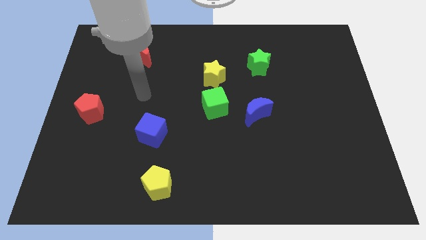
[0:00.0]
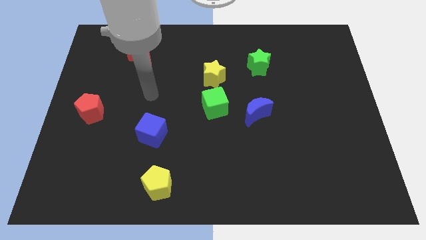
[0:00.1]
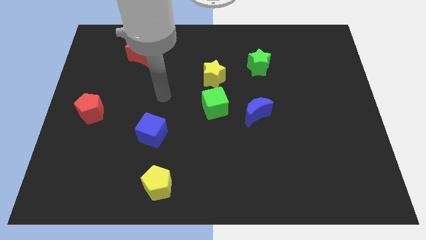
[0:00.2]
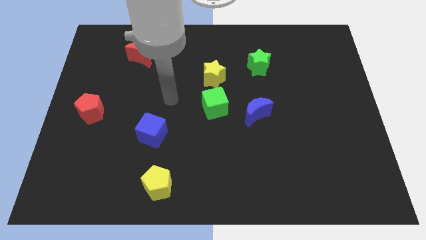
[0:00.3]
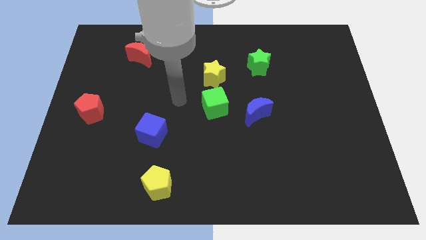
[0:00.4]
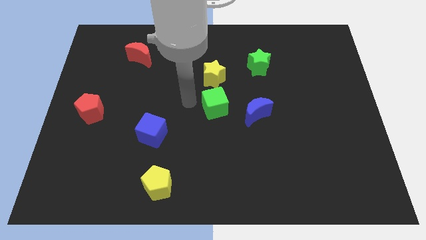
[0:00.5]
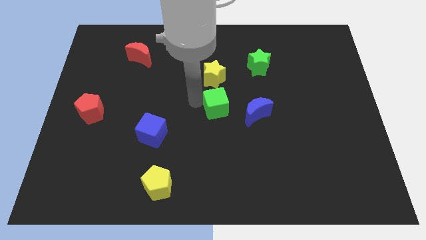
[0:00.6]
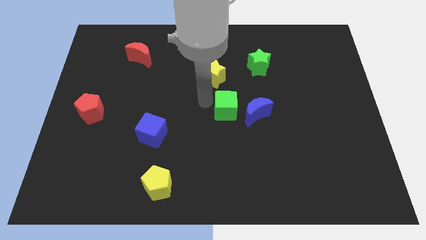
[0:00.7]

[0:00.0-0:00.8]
pull the yellow star apart from the green cube

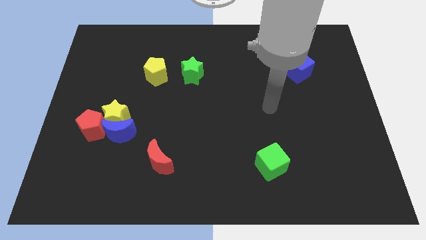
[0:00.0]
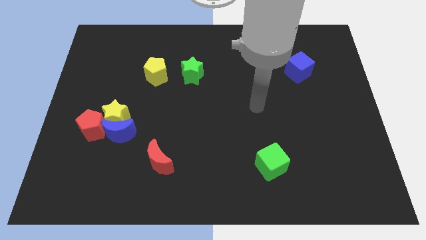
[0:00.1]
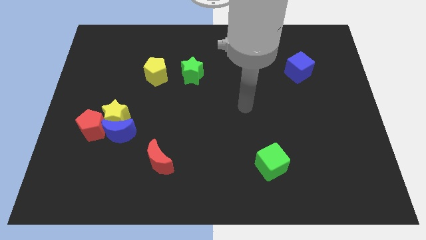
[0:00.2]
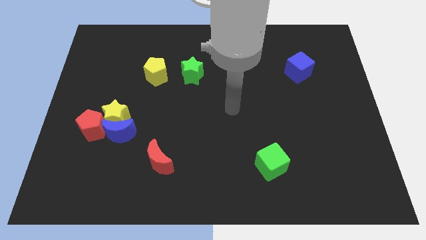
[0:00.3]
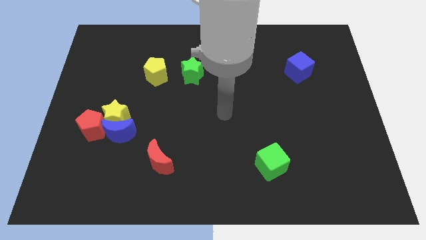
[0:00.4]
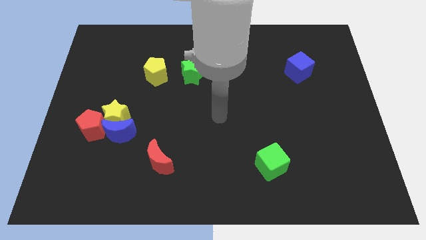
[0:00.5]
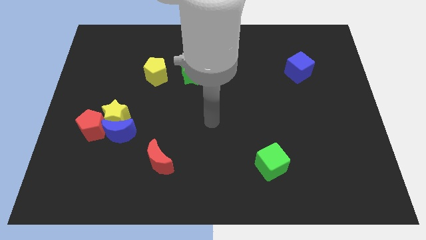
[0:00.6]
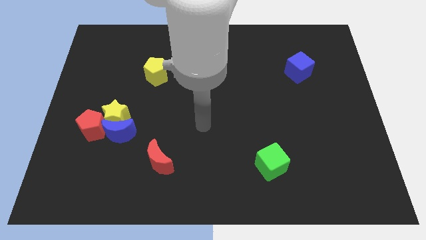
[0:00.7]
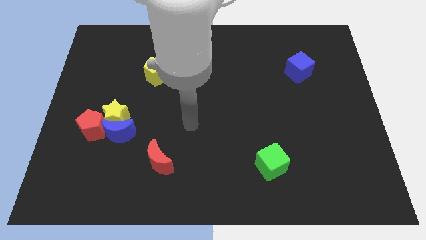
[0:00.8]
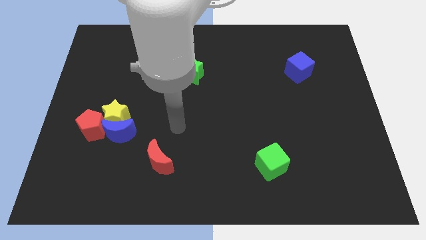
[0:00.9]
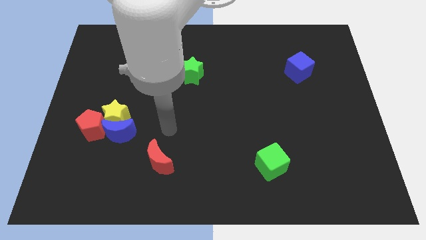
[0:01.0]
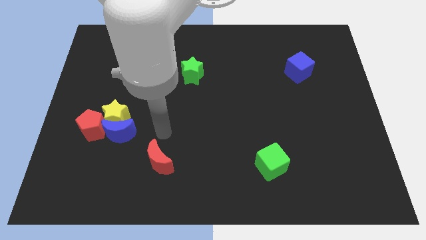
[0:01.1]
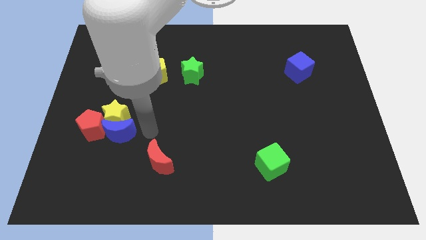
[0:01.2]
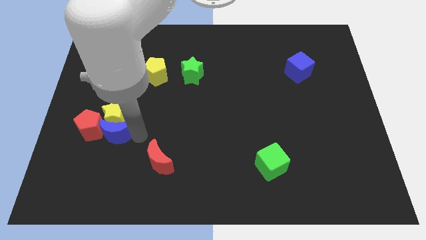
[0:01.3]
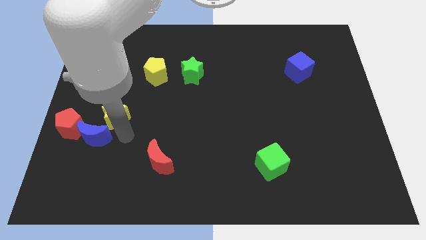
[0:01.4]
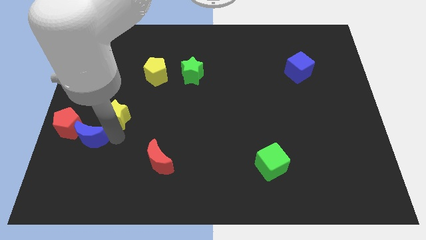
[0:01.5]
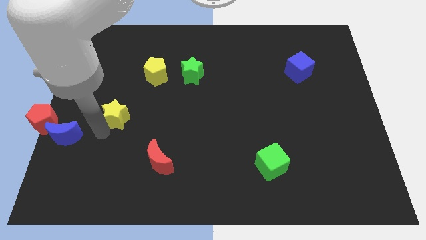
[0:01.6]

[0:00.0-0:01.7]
move the yellow star away from the blue moon and red pentagon

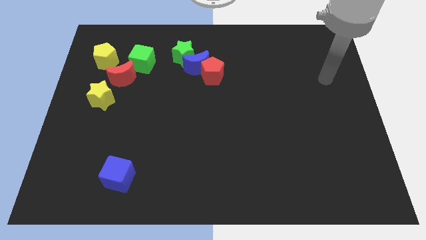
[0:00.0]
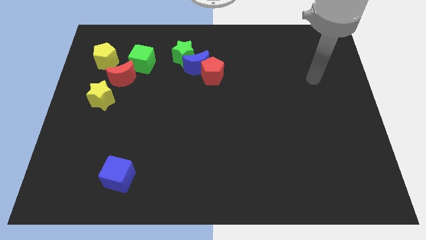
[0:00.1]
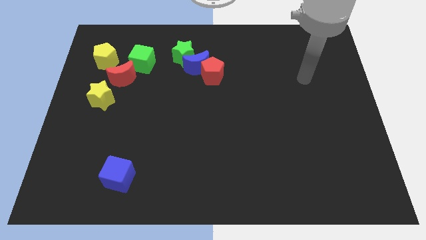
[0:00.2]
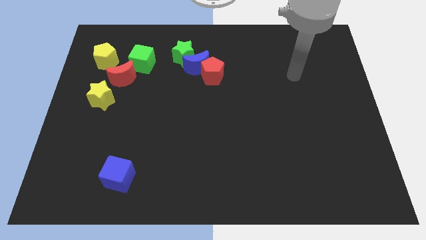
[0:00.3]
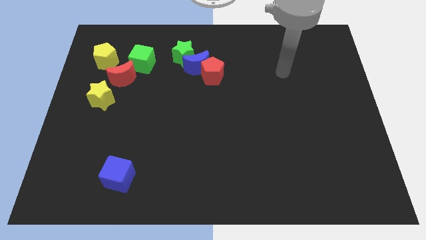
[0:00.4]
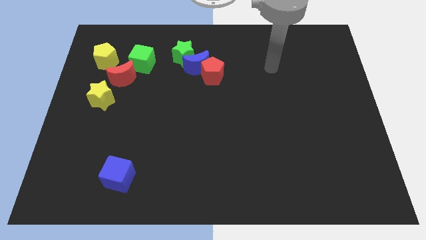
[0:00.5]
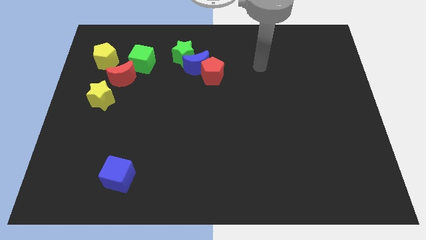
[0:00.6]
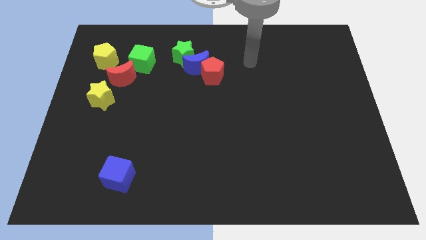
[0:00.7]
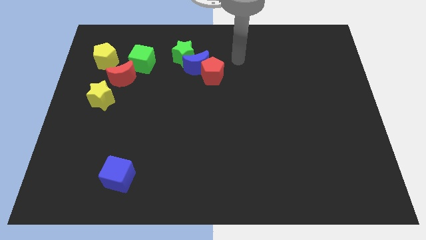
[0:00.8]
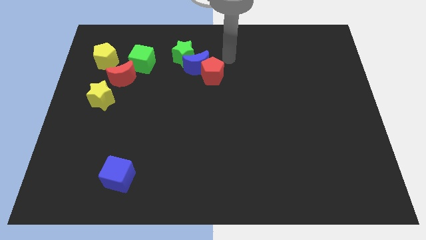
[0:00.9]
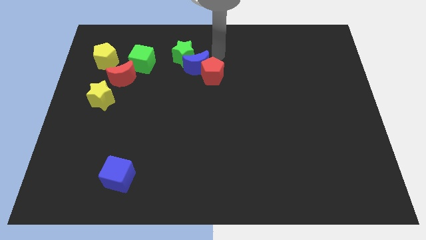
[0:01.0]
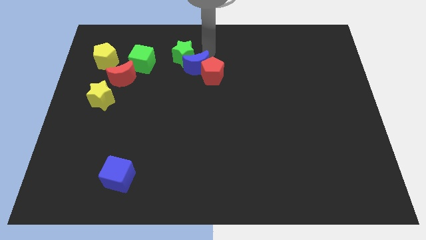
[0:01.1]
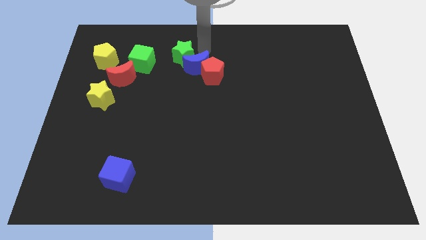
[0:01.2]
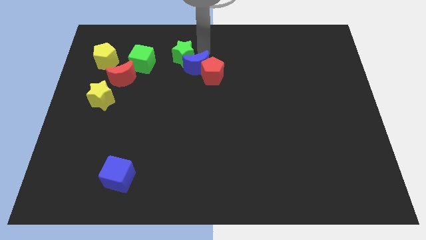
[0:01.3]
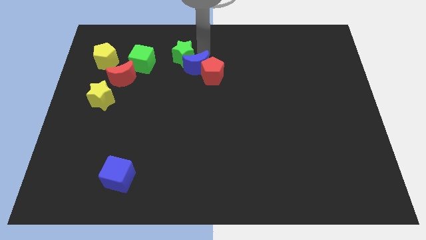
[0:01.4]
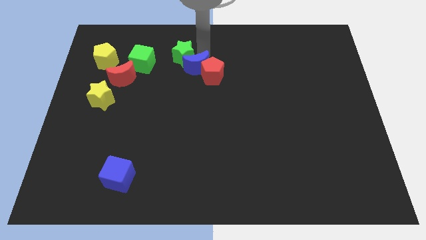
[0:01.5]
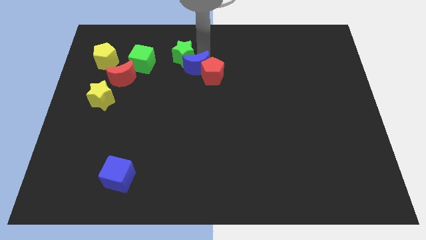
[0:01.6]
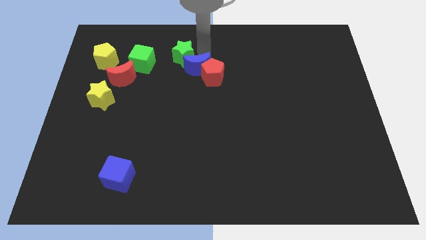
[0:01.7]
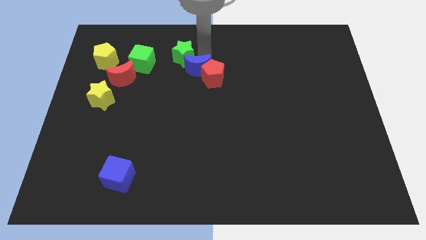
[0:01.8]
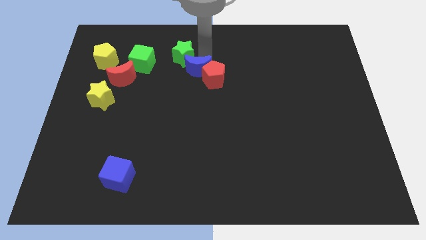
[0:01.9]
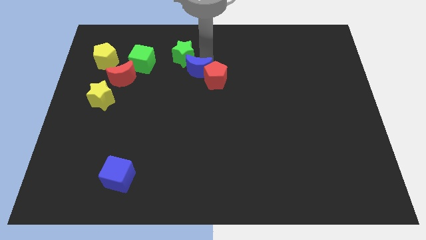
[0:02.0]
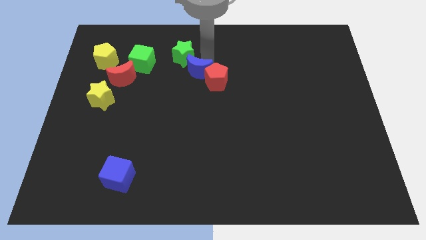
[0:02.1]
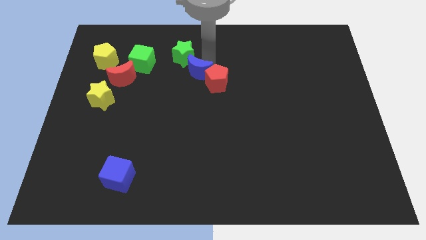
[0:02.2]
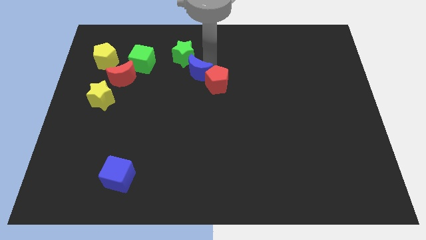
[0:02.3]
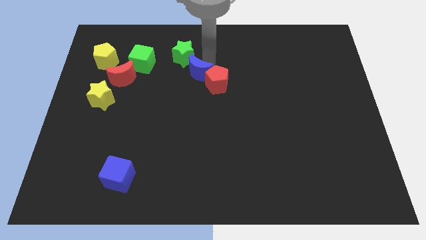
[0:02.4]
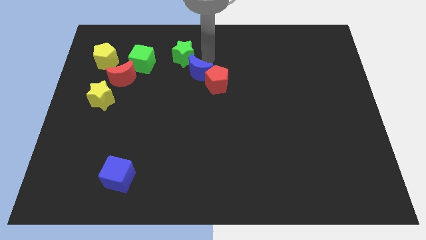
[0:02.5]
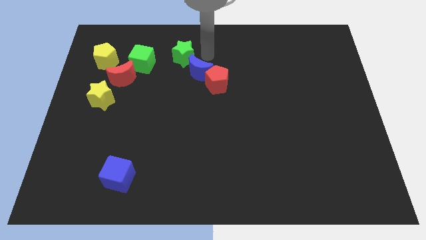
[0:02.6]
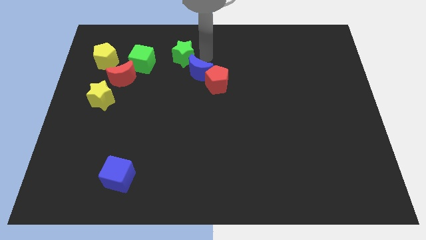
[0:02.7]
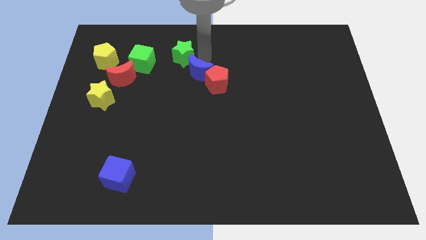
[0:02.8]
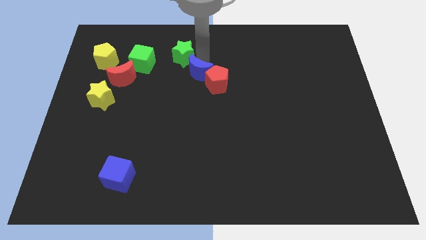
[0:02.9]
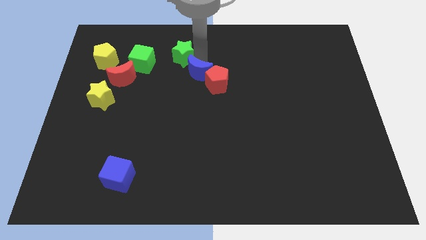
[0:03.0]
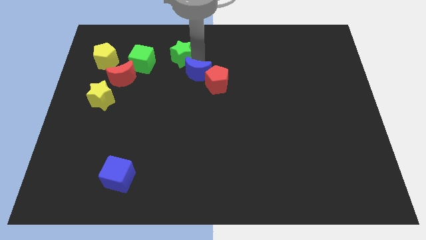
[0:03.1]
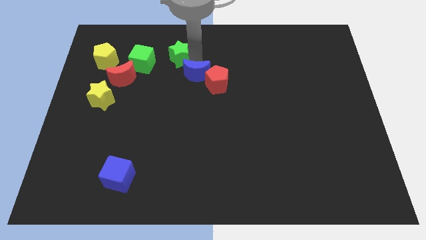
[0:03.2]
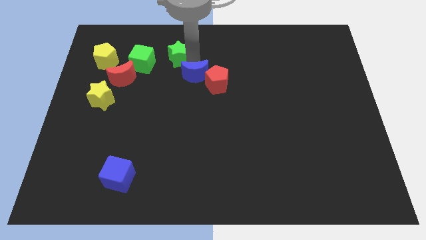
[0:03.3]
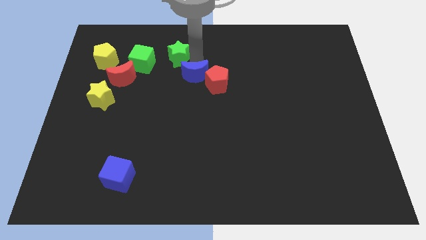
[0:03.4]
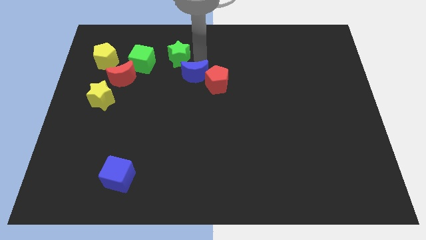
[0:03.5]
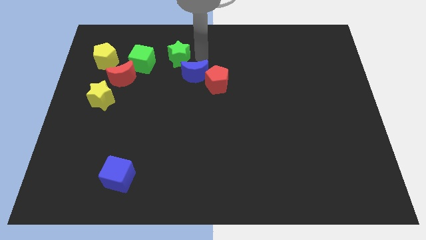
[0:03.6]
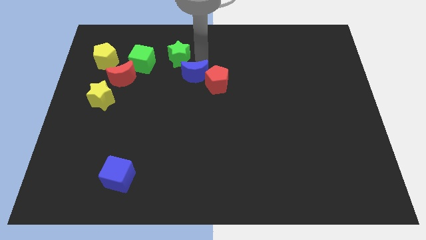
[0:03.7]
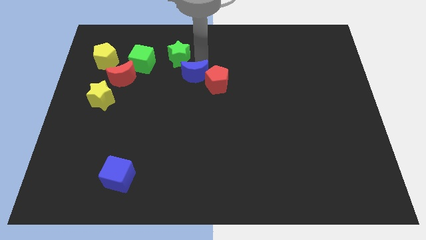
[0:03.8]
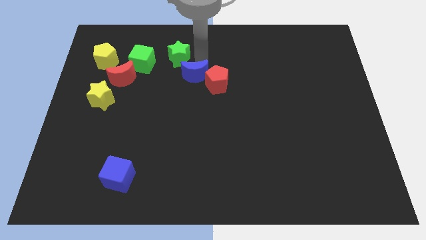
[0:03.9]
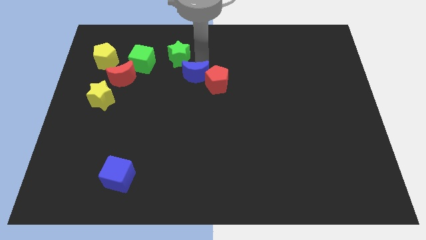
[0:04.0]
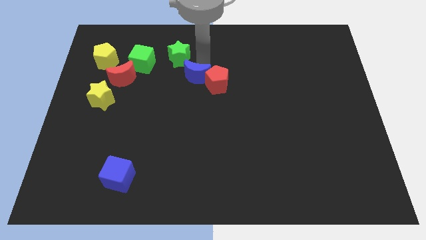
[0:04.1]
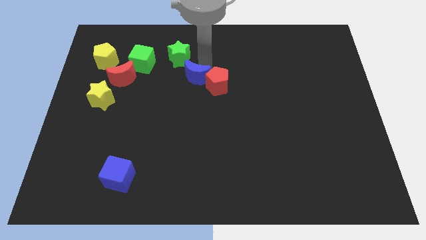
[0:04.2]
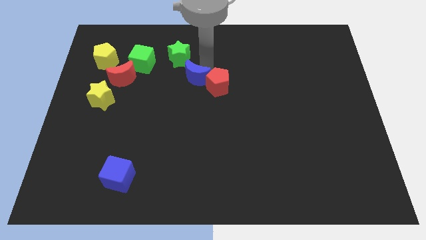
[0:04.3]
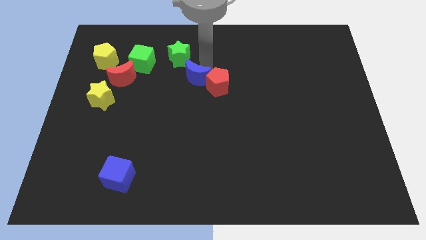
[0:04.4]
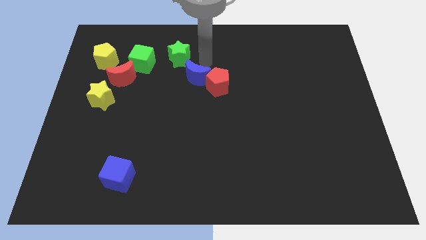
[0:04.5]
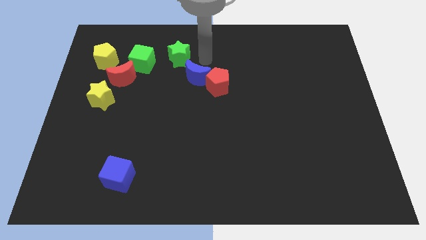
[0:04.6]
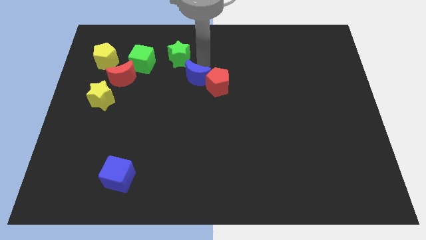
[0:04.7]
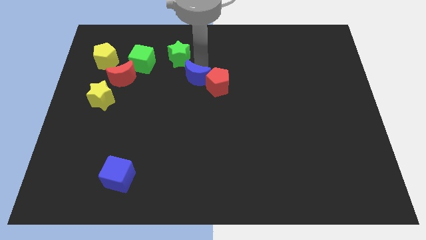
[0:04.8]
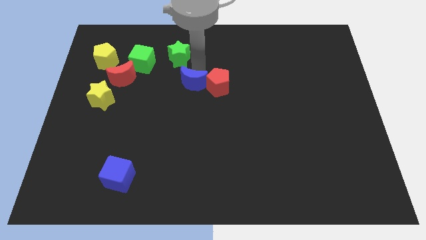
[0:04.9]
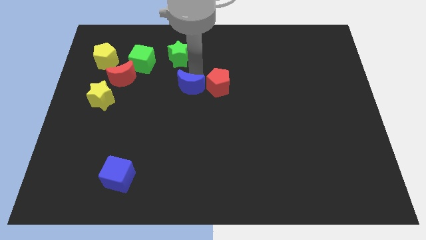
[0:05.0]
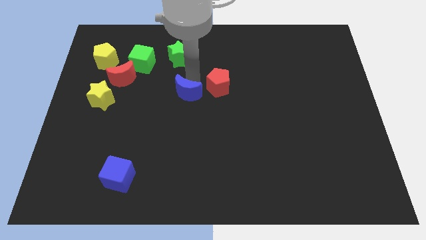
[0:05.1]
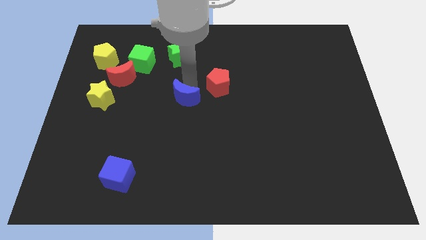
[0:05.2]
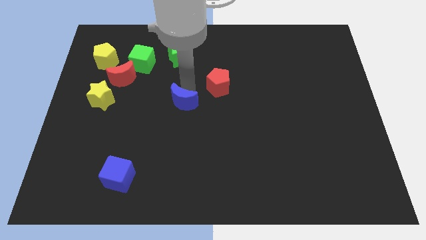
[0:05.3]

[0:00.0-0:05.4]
separate the blue moon from the red pentagon and green star

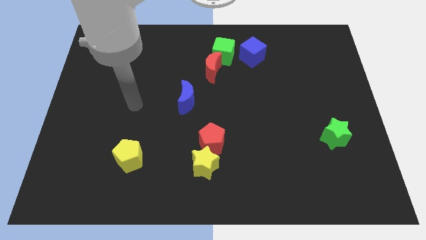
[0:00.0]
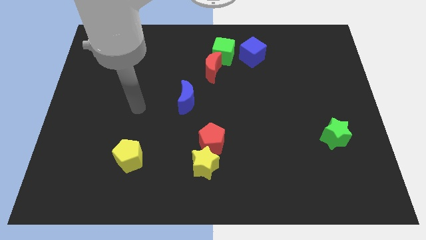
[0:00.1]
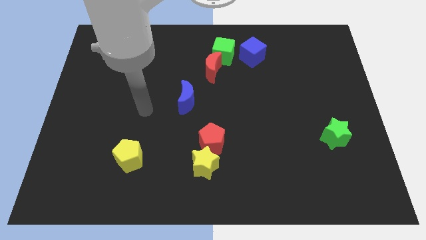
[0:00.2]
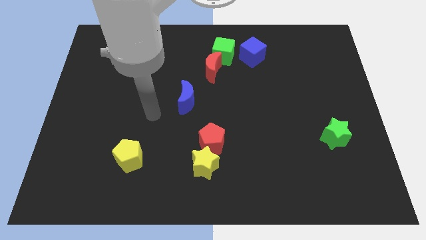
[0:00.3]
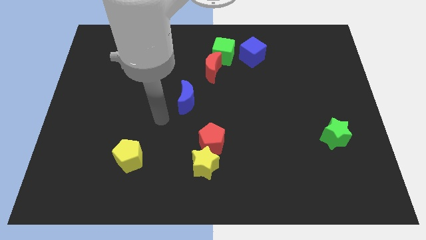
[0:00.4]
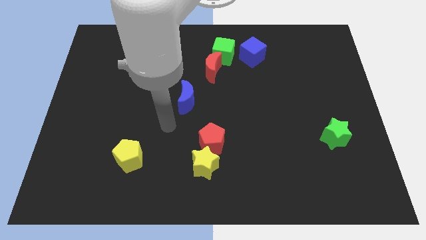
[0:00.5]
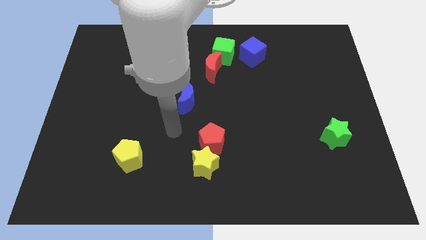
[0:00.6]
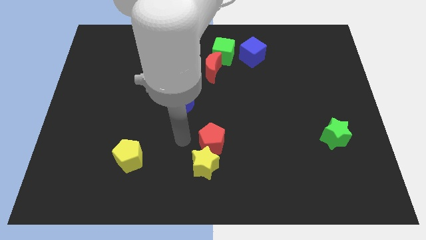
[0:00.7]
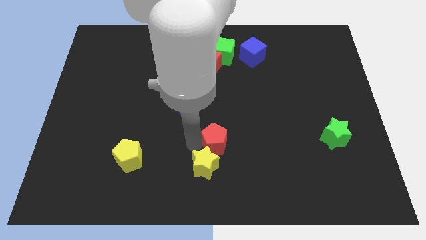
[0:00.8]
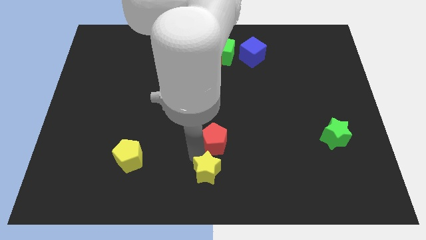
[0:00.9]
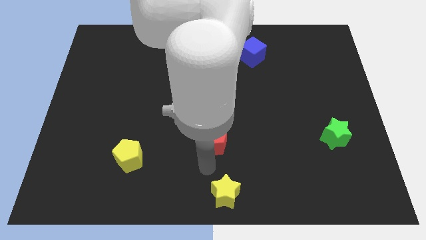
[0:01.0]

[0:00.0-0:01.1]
move the red pentagon away from the yellow star

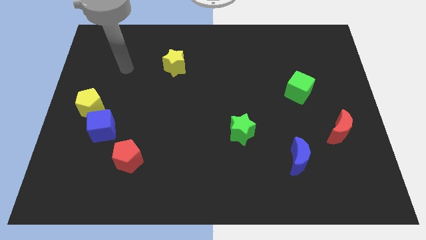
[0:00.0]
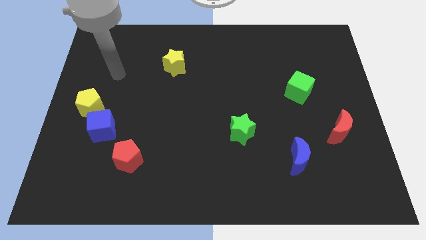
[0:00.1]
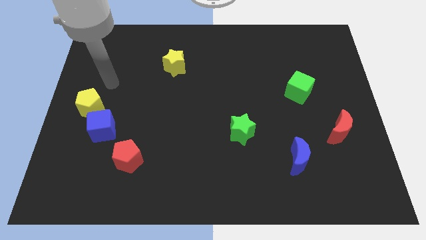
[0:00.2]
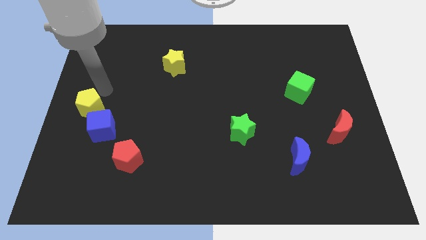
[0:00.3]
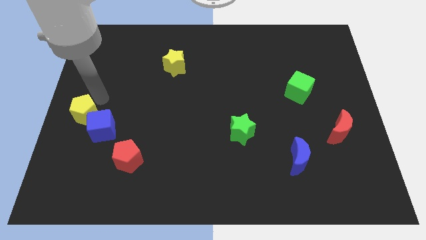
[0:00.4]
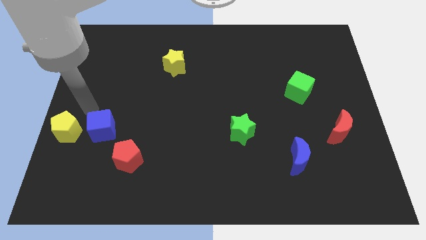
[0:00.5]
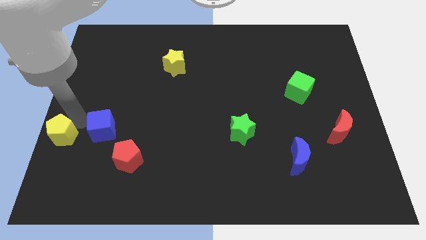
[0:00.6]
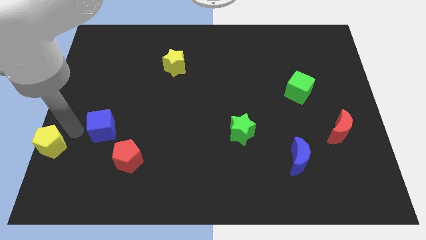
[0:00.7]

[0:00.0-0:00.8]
pull the blue cube apart from the yellow pentagon
